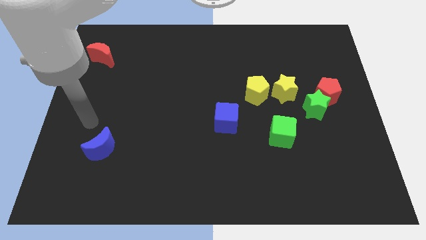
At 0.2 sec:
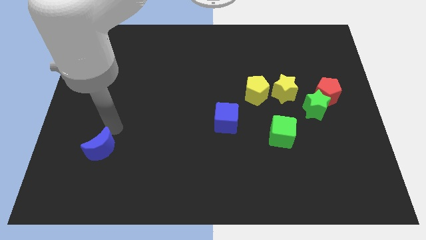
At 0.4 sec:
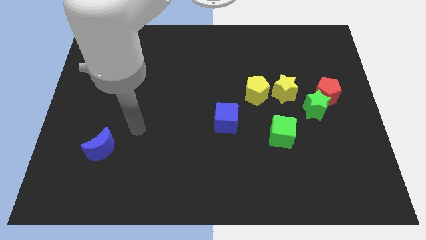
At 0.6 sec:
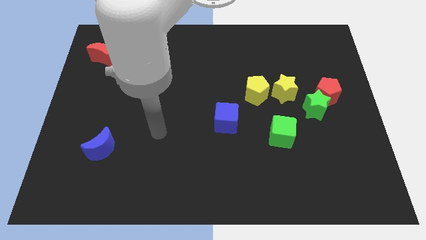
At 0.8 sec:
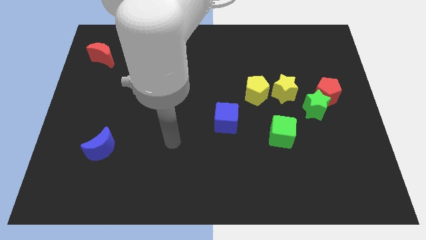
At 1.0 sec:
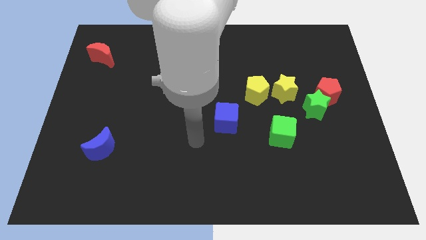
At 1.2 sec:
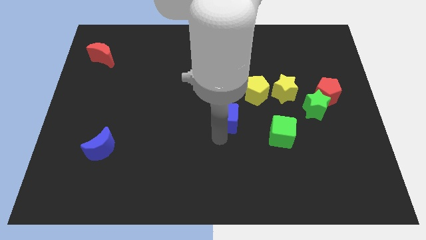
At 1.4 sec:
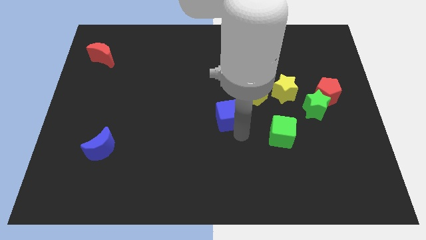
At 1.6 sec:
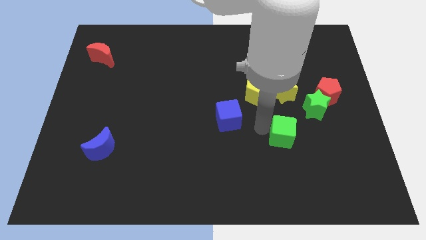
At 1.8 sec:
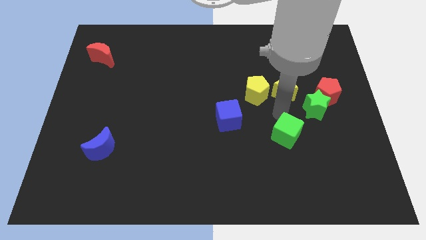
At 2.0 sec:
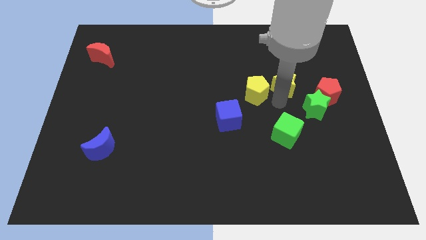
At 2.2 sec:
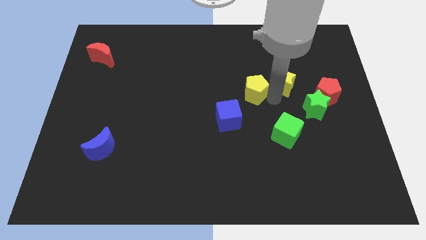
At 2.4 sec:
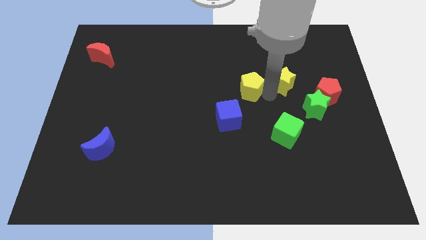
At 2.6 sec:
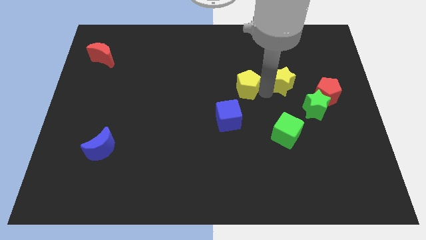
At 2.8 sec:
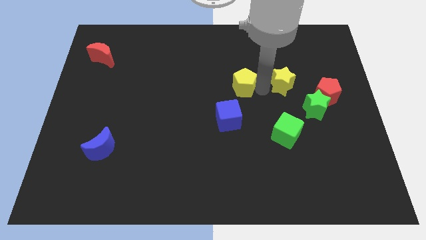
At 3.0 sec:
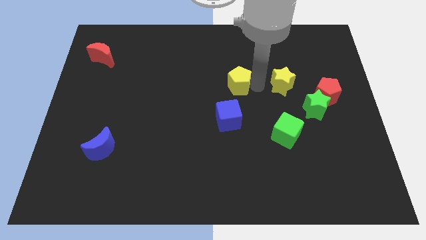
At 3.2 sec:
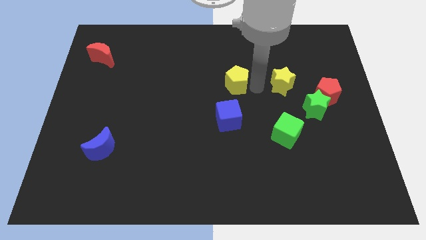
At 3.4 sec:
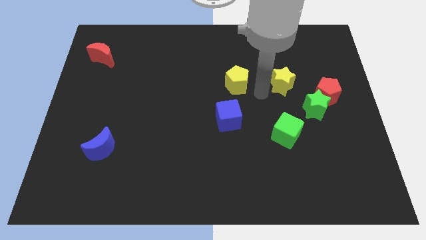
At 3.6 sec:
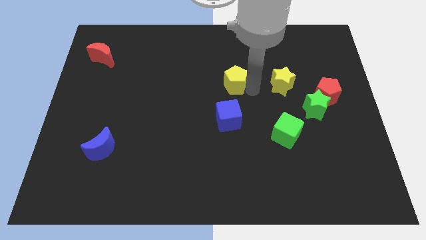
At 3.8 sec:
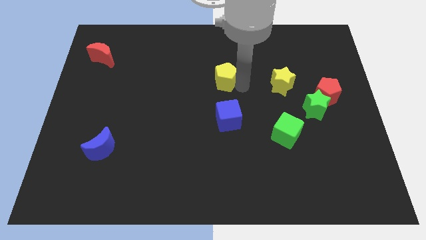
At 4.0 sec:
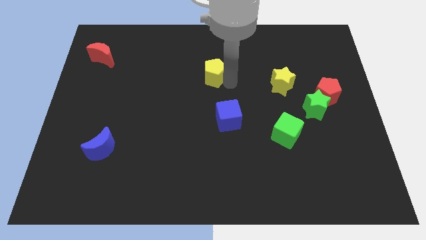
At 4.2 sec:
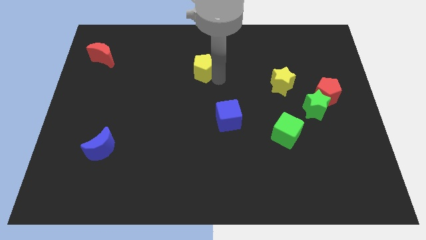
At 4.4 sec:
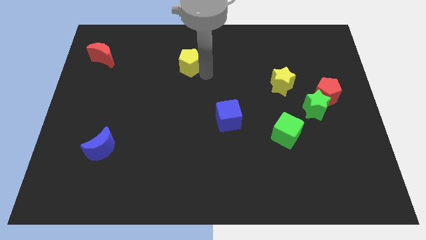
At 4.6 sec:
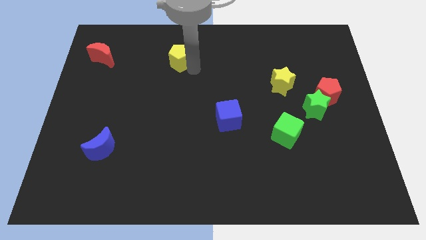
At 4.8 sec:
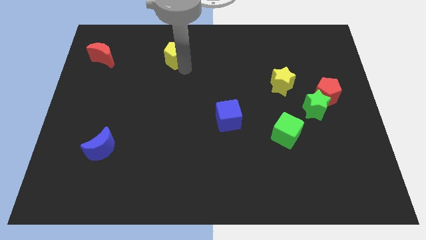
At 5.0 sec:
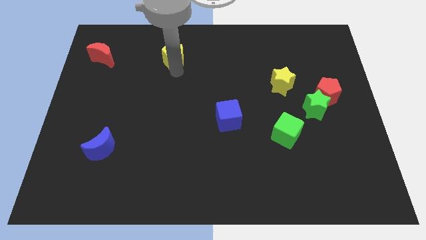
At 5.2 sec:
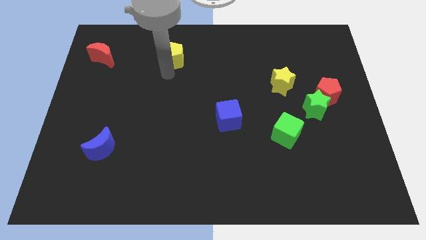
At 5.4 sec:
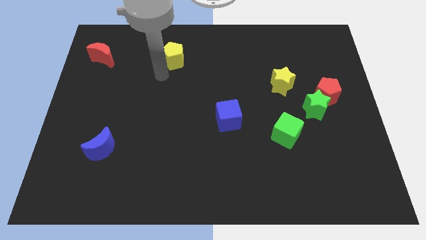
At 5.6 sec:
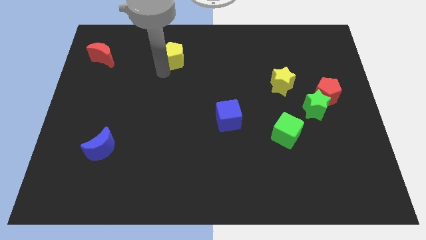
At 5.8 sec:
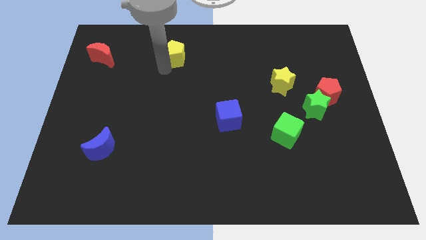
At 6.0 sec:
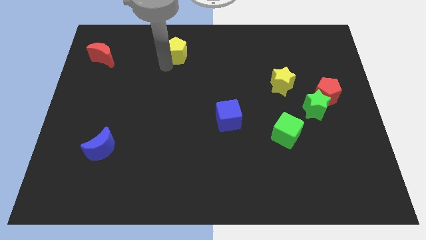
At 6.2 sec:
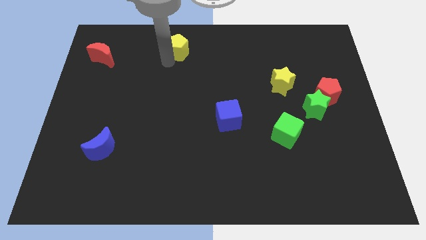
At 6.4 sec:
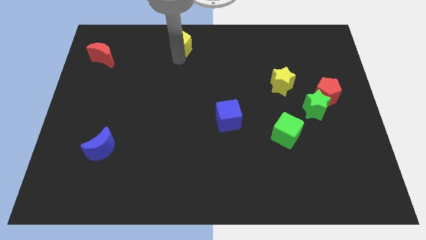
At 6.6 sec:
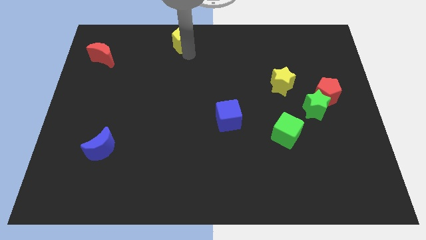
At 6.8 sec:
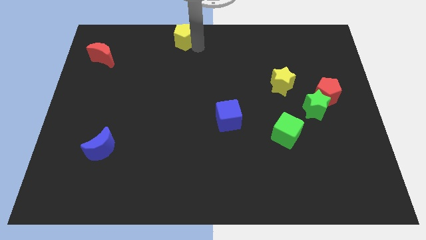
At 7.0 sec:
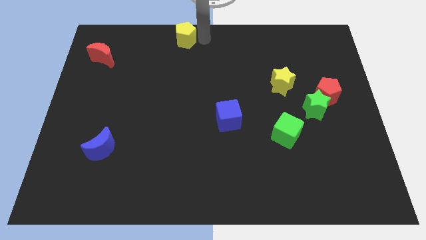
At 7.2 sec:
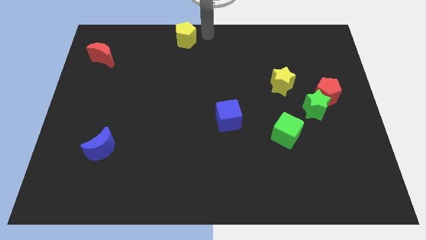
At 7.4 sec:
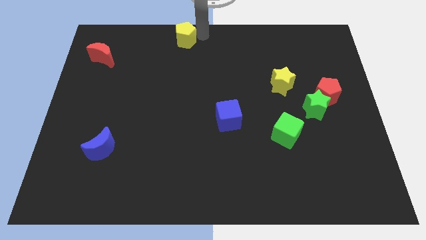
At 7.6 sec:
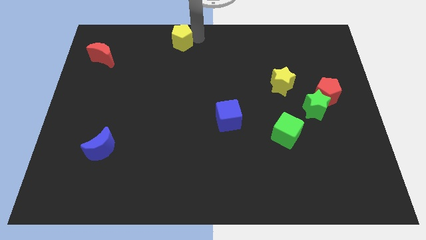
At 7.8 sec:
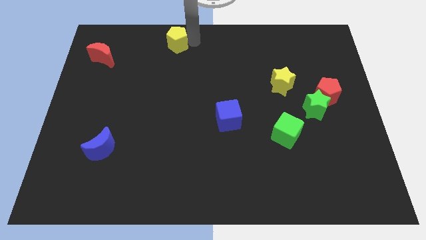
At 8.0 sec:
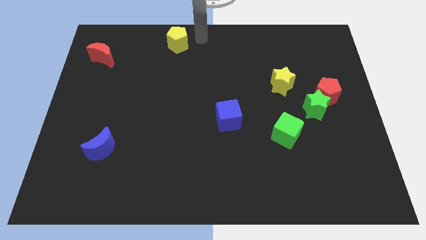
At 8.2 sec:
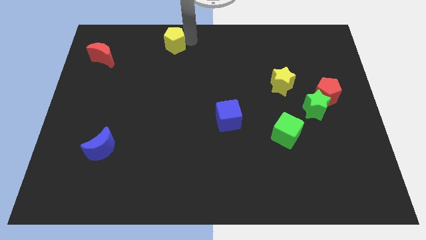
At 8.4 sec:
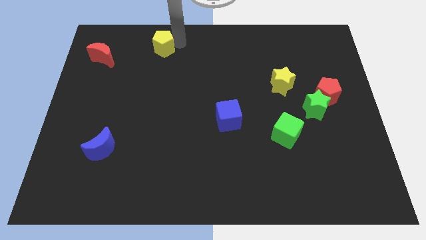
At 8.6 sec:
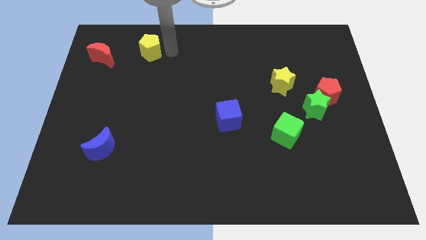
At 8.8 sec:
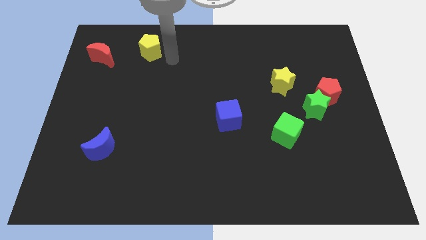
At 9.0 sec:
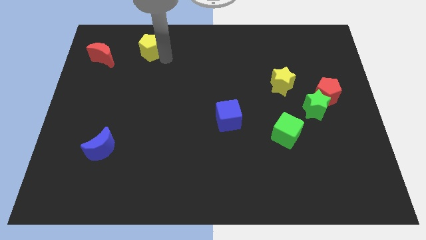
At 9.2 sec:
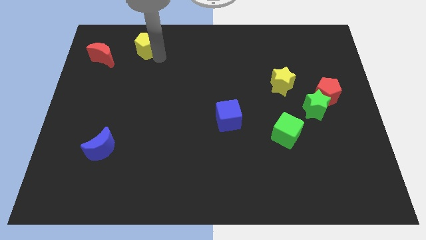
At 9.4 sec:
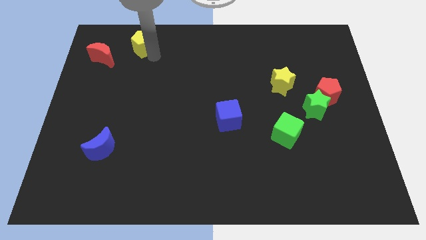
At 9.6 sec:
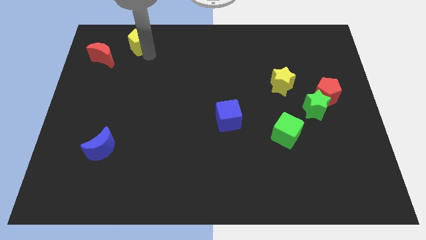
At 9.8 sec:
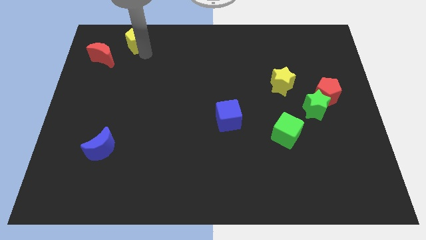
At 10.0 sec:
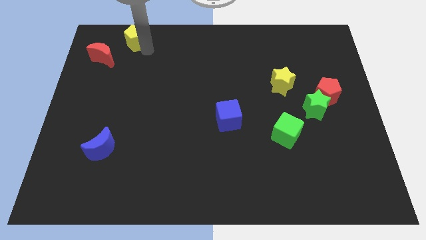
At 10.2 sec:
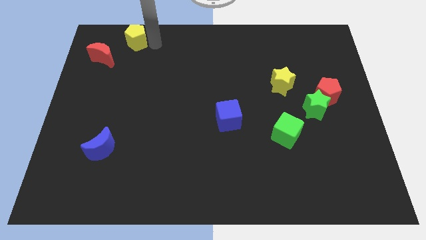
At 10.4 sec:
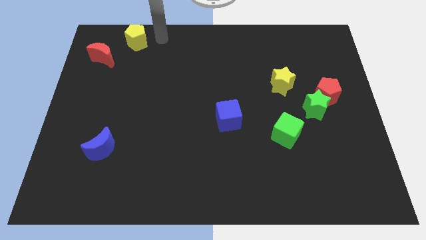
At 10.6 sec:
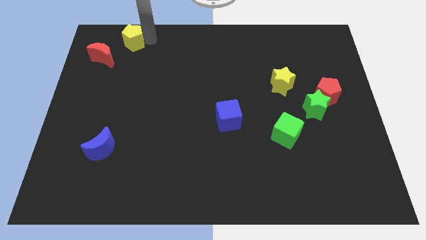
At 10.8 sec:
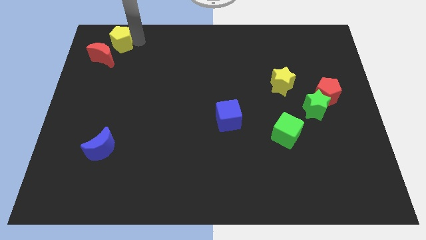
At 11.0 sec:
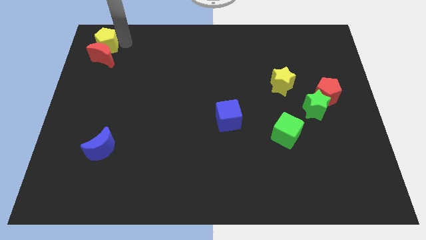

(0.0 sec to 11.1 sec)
move the yellow pentagon to the top left
